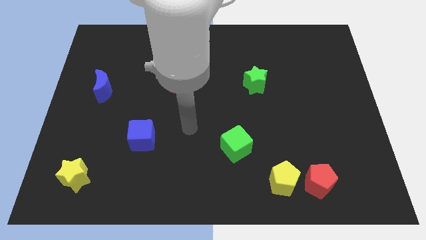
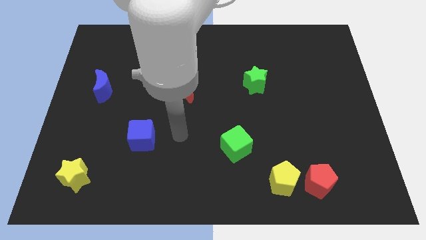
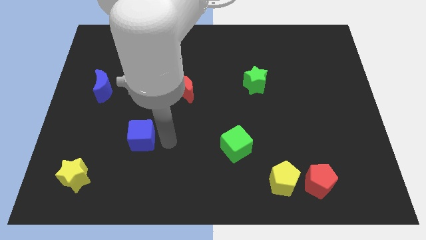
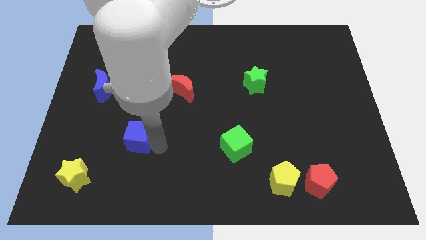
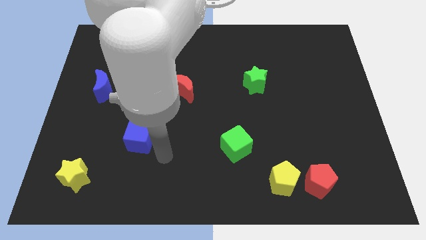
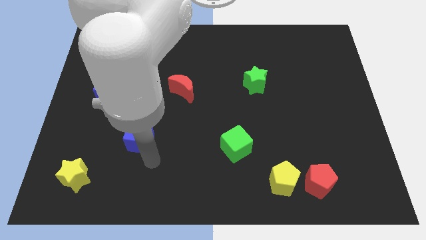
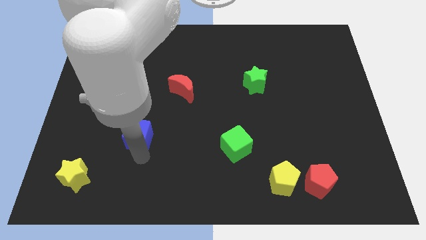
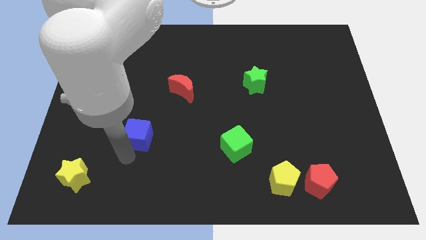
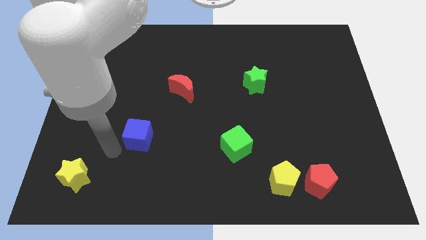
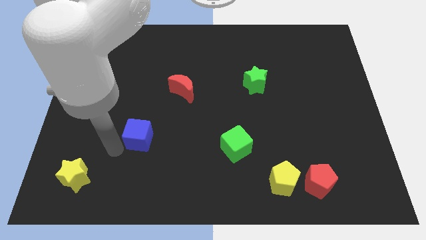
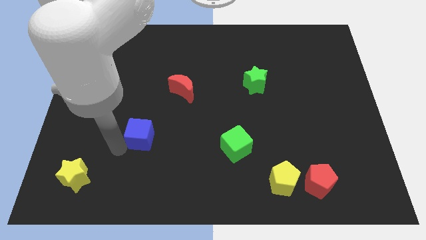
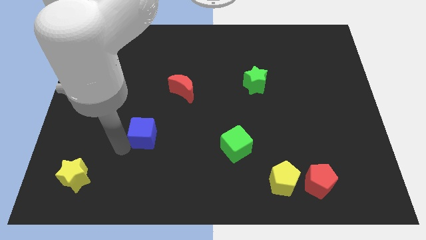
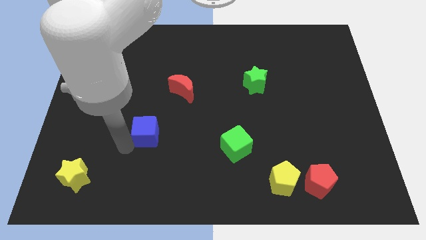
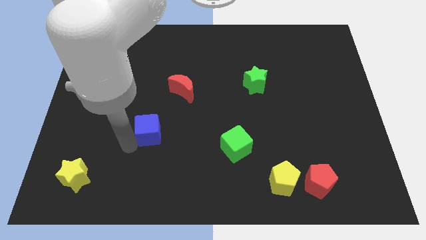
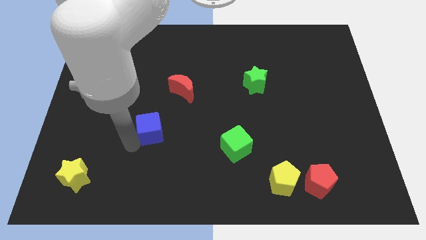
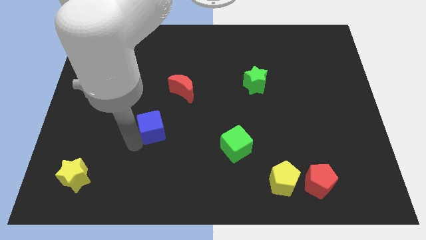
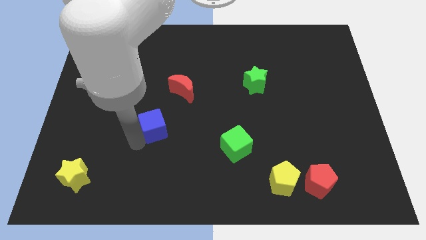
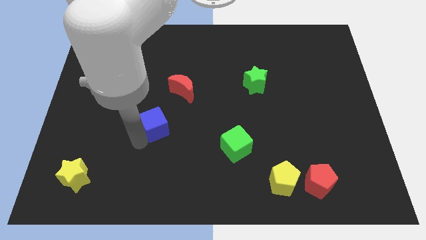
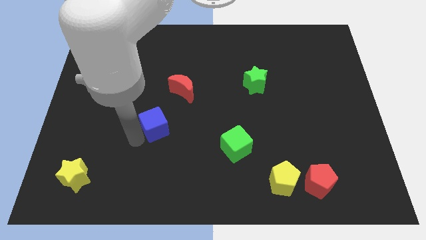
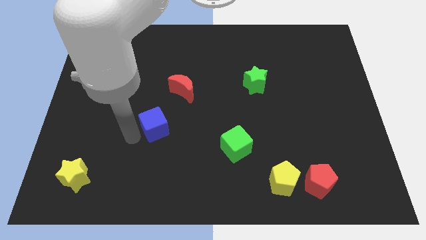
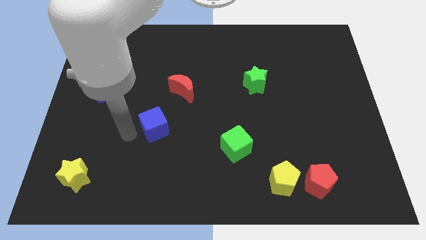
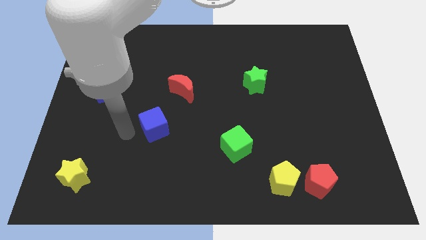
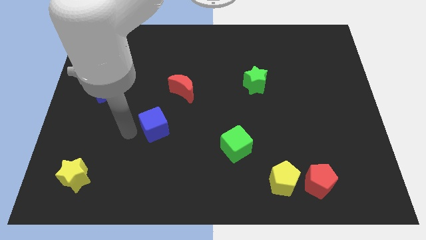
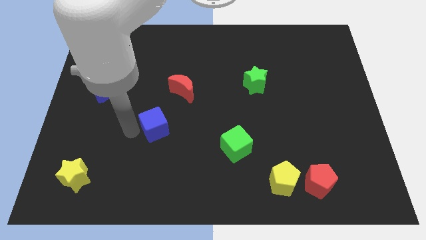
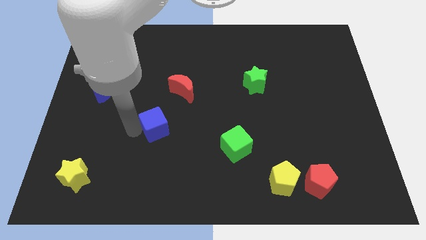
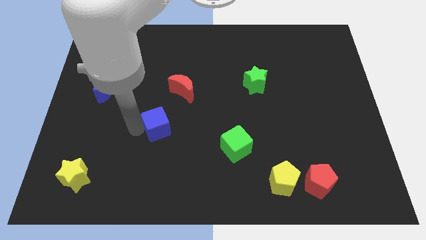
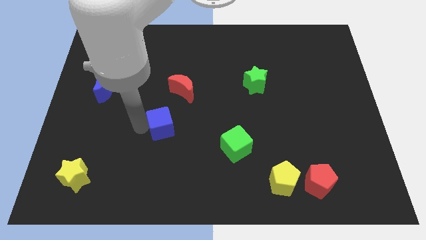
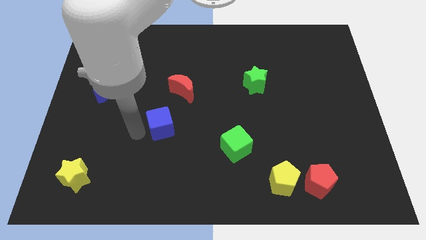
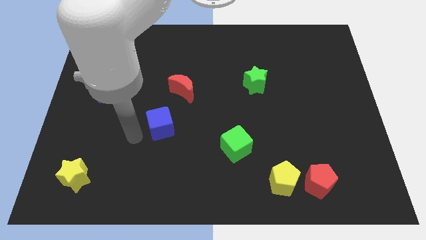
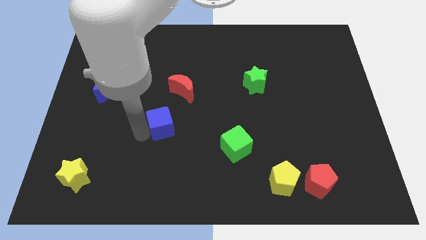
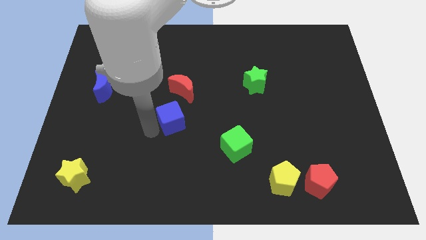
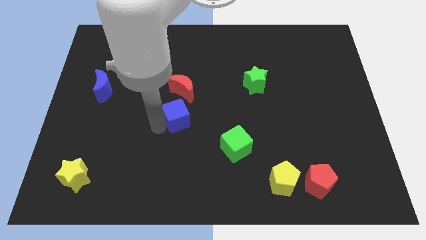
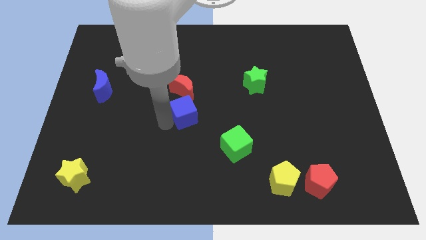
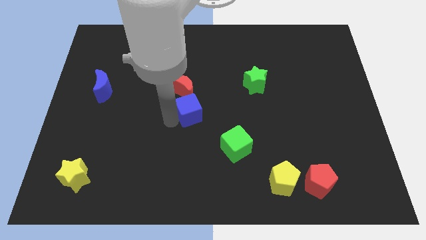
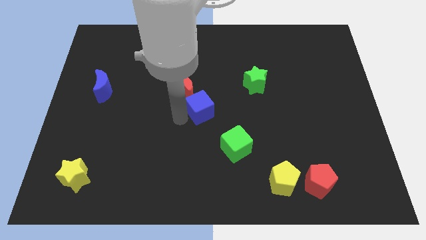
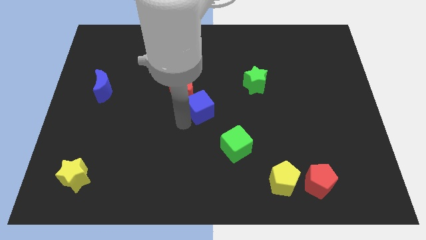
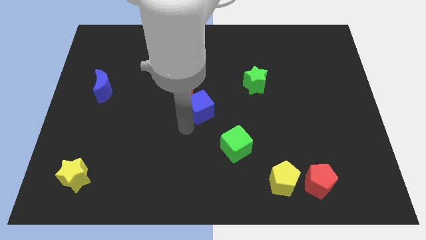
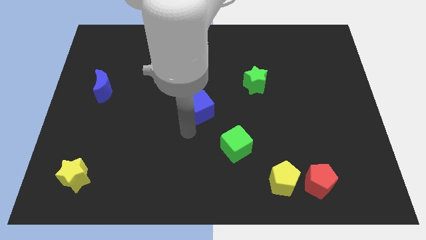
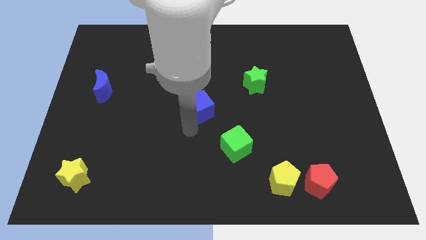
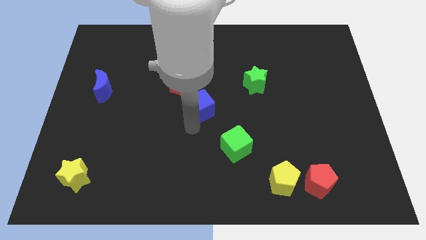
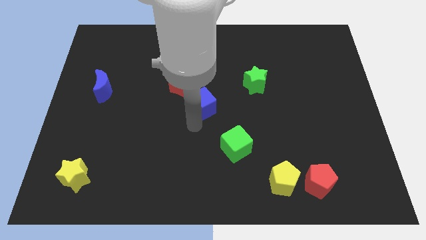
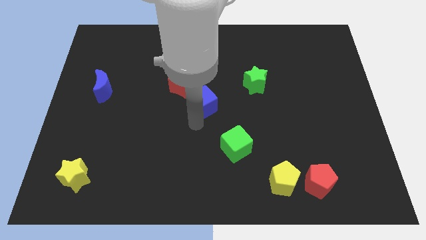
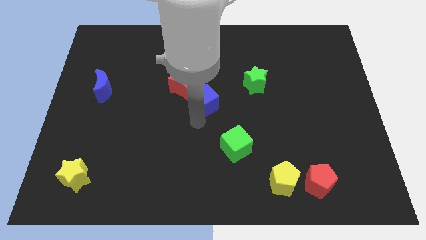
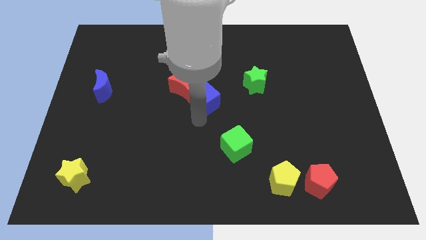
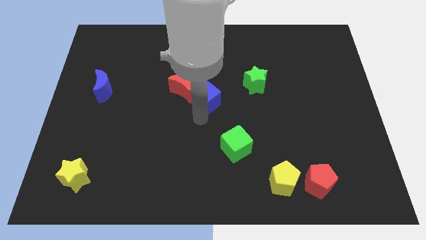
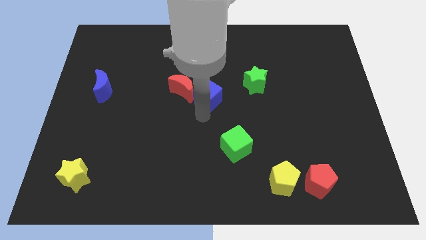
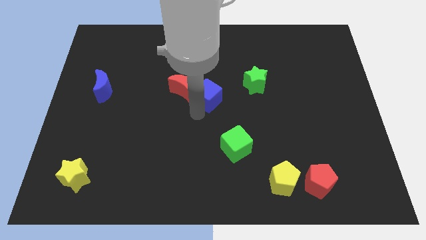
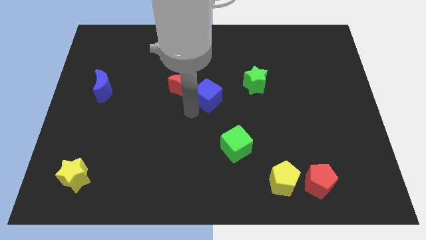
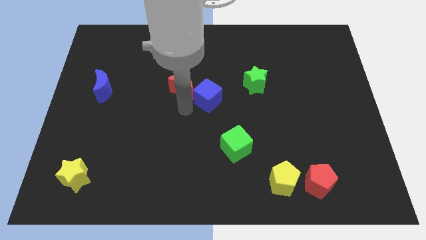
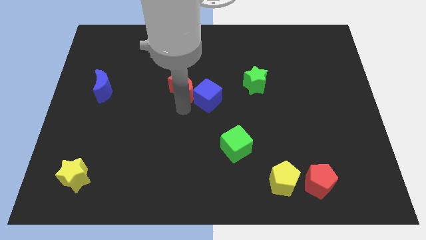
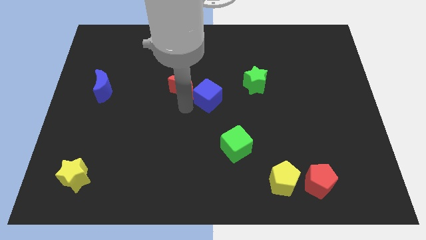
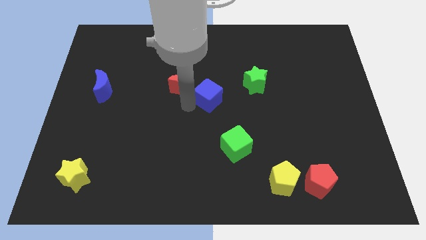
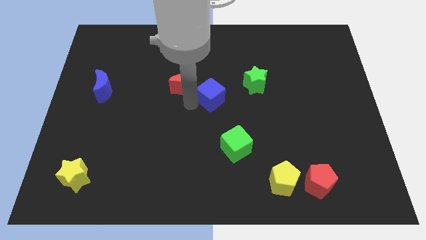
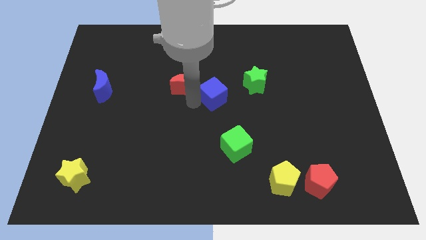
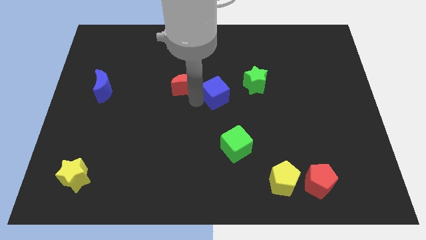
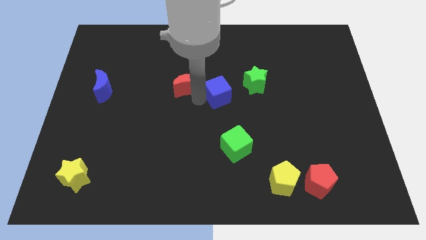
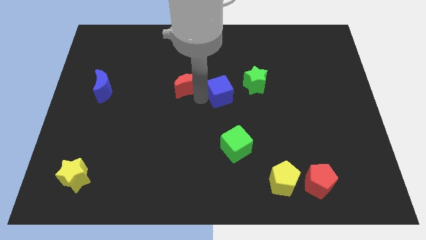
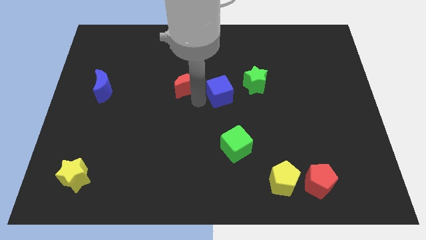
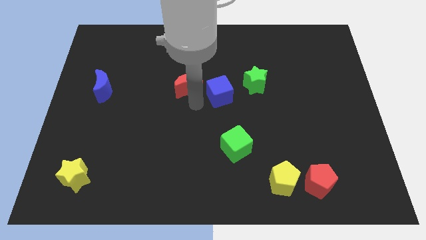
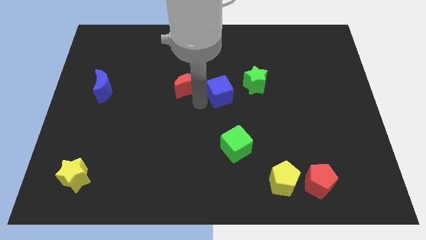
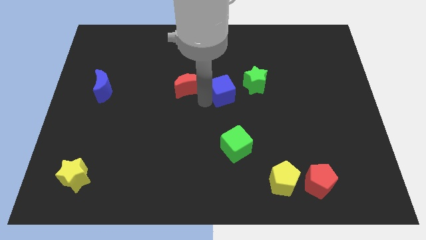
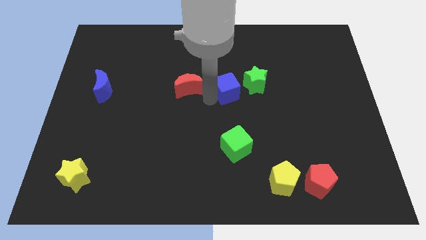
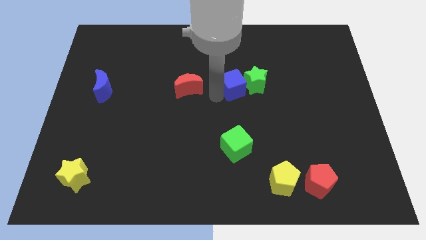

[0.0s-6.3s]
move the blue cube to the green star
